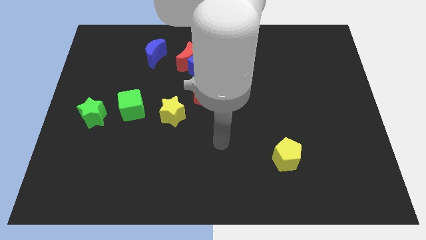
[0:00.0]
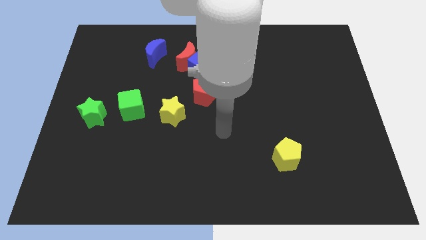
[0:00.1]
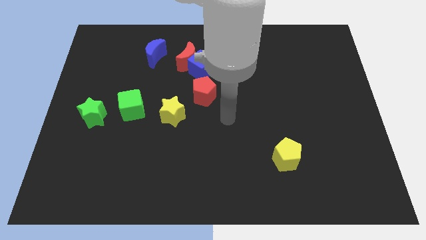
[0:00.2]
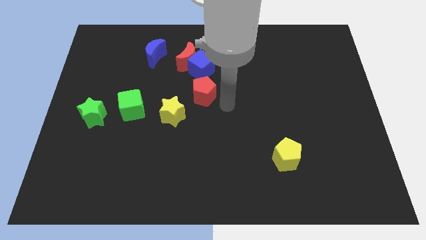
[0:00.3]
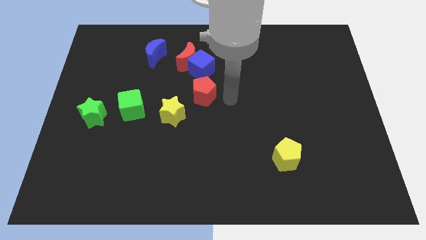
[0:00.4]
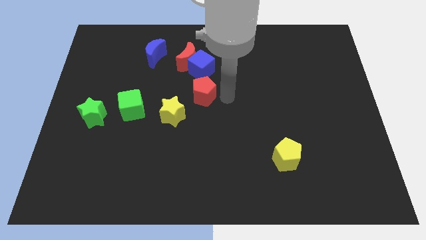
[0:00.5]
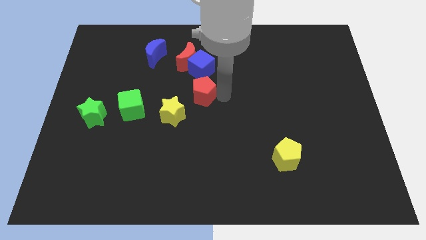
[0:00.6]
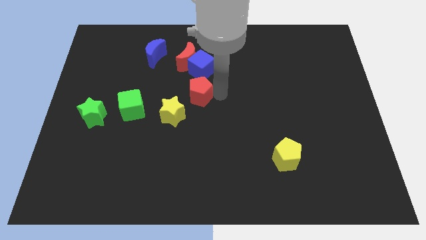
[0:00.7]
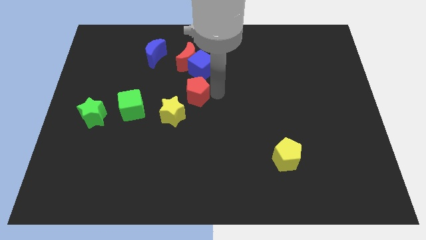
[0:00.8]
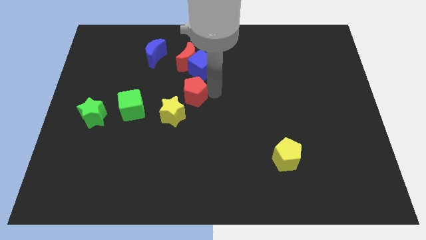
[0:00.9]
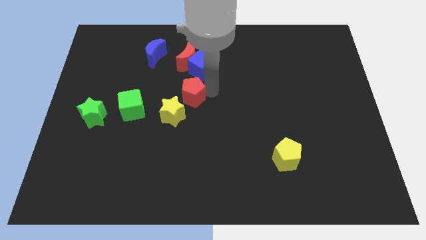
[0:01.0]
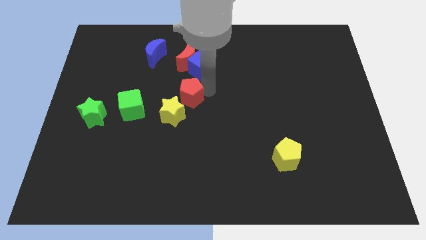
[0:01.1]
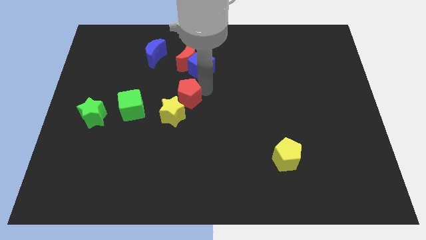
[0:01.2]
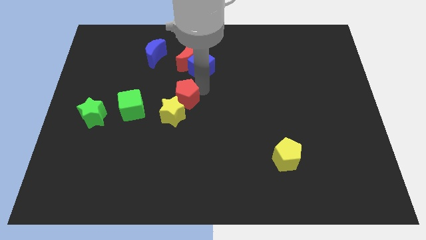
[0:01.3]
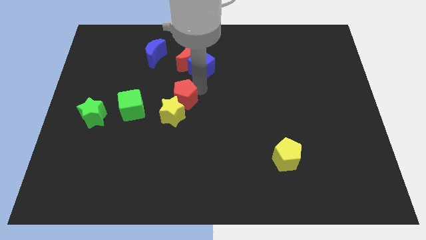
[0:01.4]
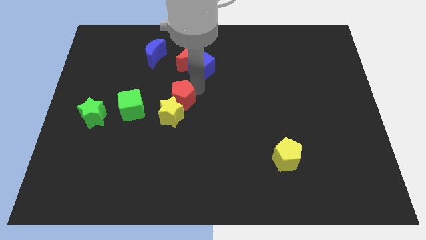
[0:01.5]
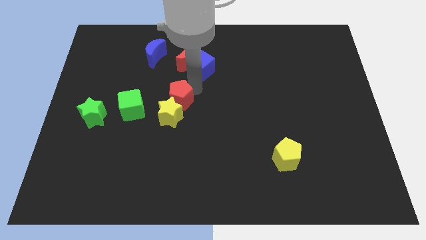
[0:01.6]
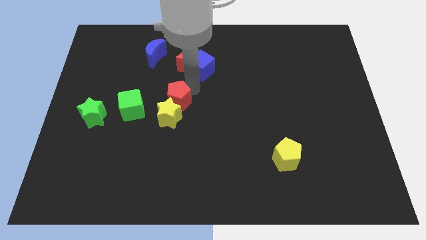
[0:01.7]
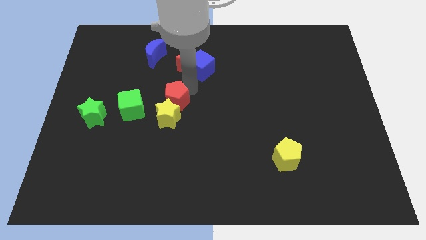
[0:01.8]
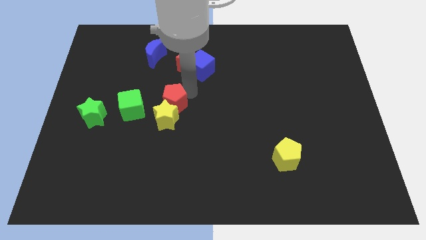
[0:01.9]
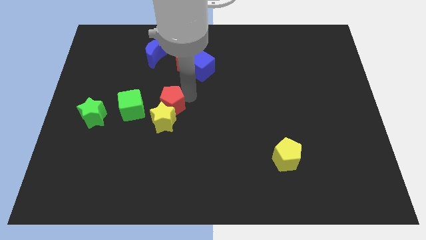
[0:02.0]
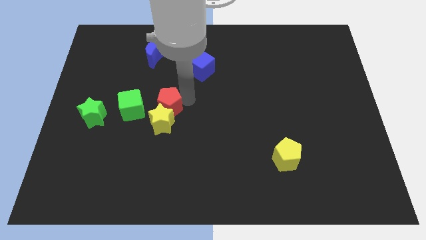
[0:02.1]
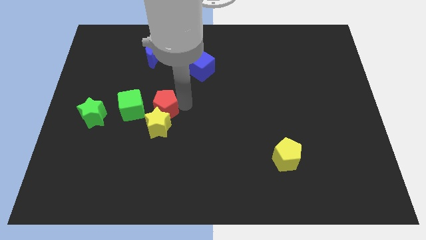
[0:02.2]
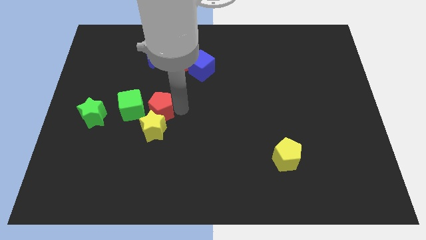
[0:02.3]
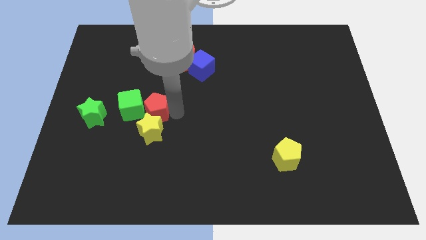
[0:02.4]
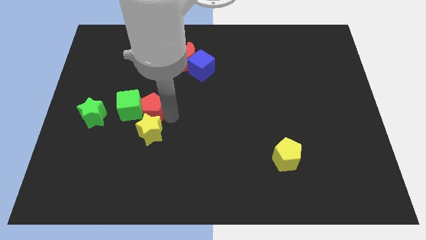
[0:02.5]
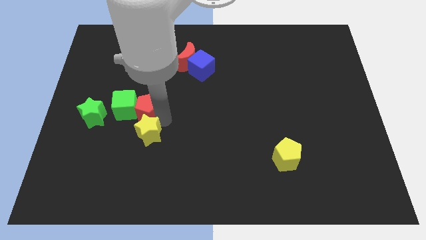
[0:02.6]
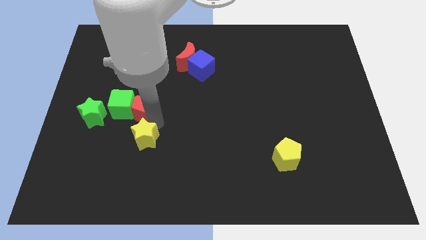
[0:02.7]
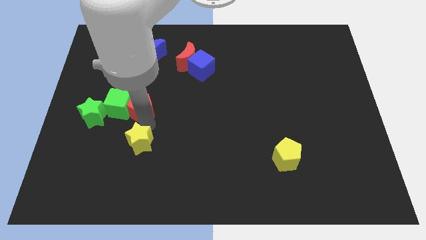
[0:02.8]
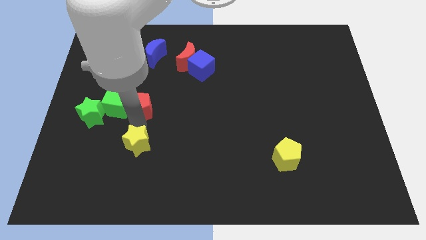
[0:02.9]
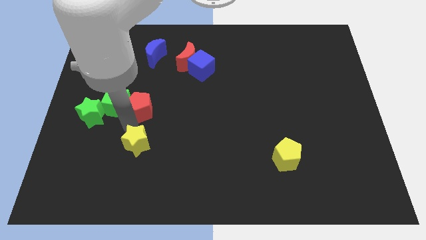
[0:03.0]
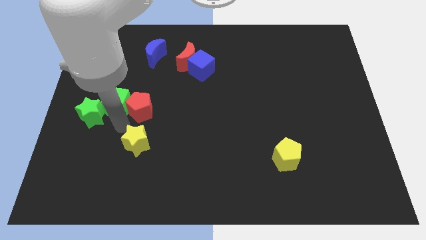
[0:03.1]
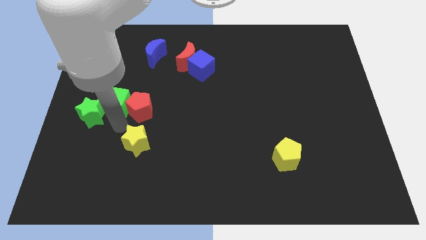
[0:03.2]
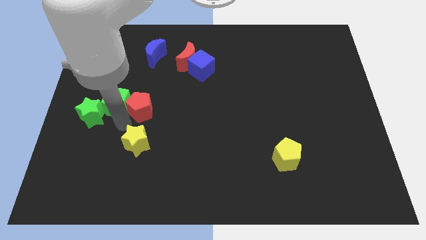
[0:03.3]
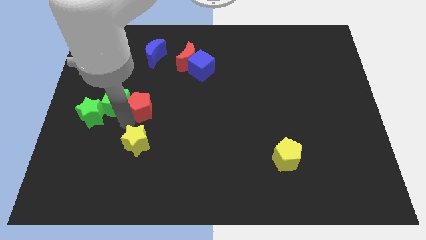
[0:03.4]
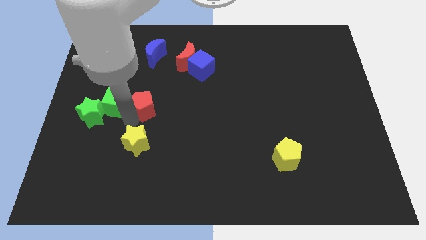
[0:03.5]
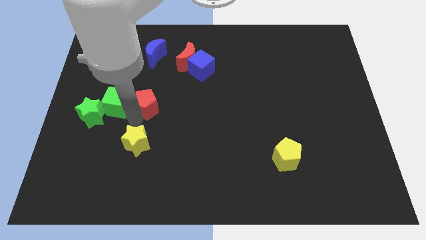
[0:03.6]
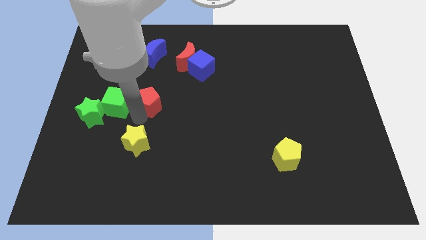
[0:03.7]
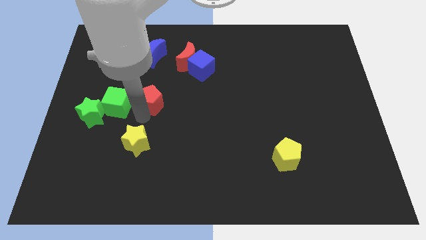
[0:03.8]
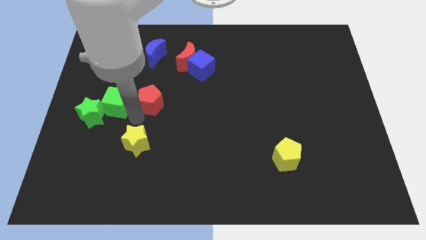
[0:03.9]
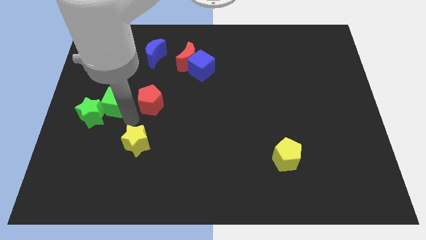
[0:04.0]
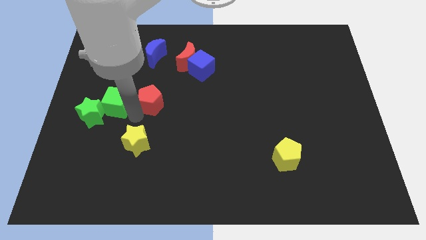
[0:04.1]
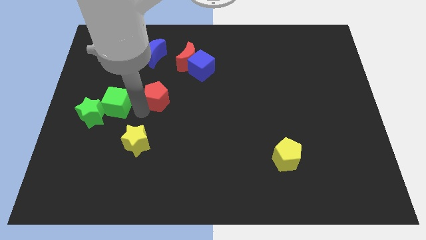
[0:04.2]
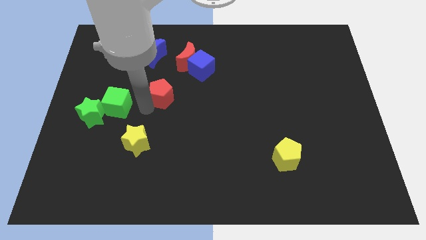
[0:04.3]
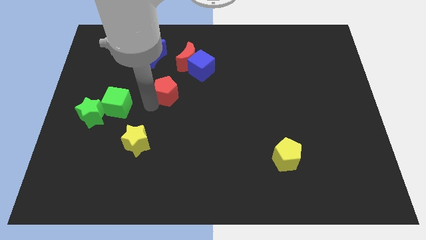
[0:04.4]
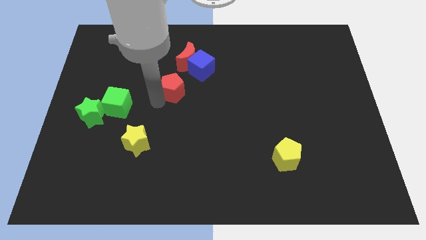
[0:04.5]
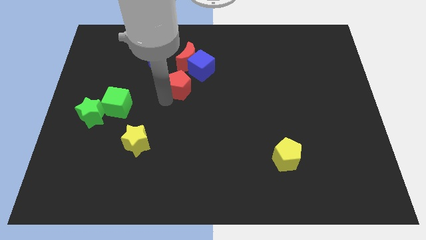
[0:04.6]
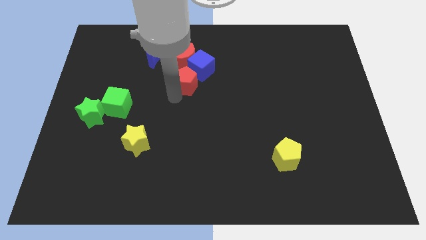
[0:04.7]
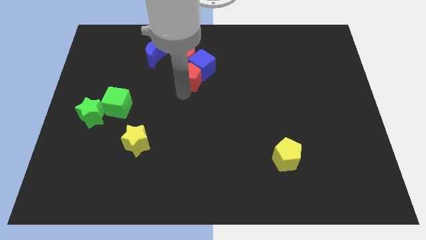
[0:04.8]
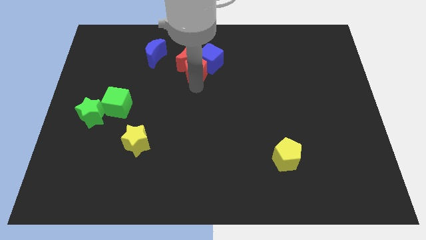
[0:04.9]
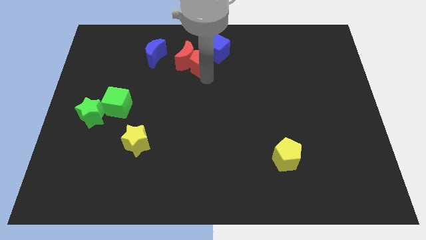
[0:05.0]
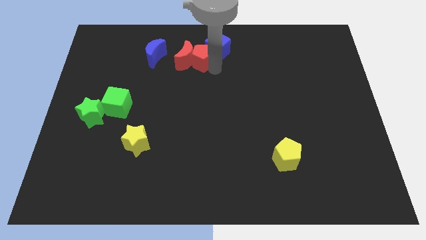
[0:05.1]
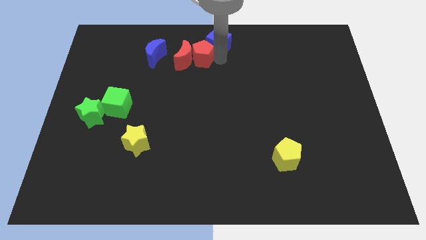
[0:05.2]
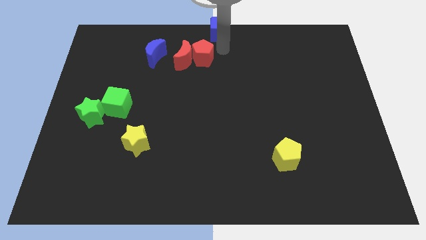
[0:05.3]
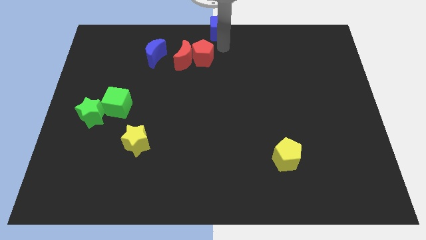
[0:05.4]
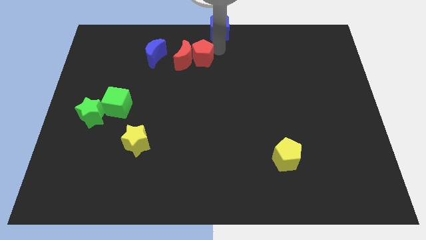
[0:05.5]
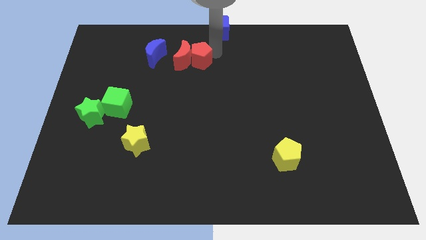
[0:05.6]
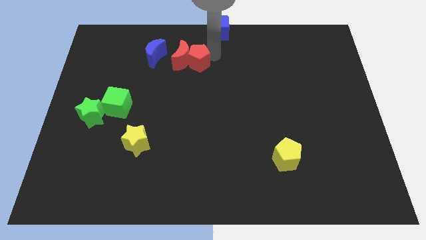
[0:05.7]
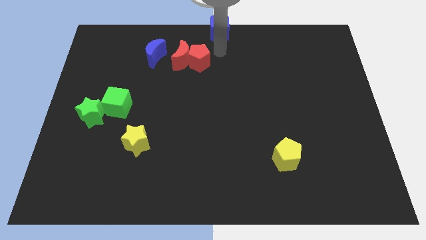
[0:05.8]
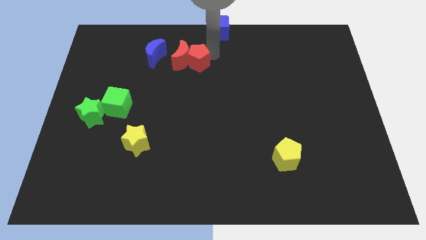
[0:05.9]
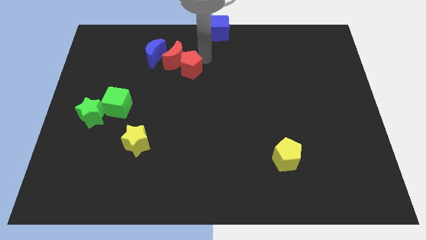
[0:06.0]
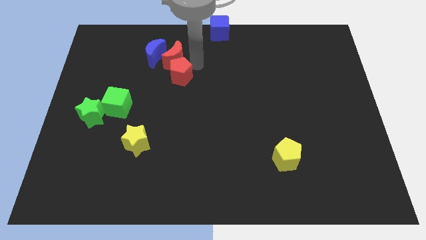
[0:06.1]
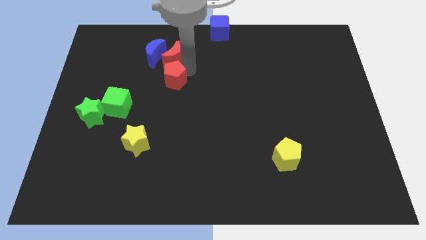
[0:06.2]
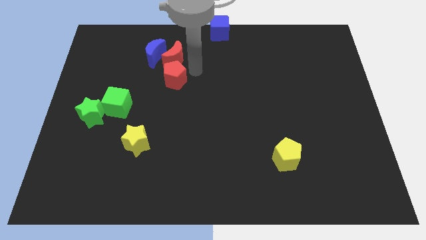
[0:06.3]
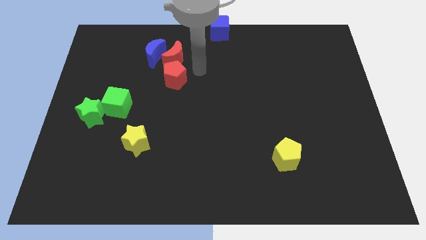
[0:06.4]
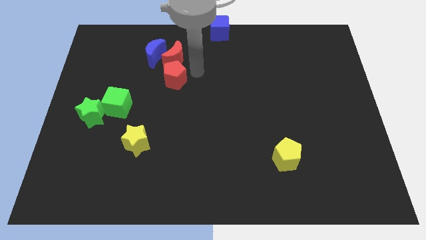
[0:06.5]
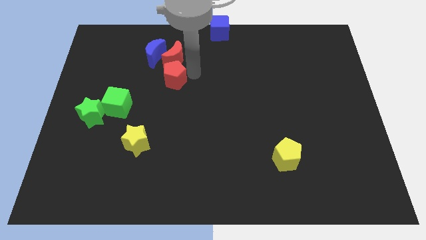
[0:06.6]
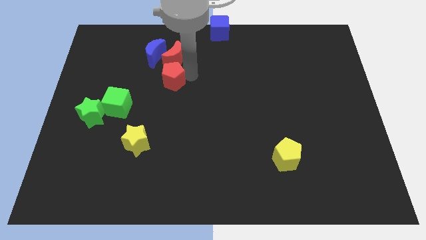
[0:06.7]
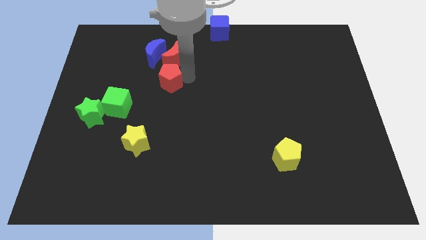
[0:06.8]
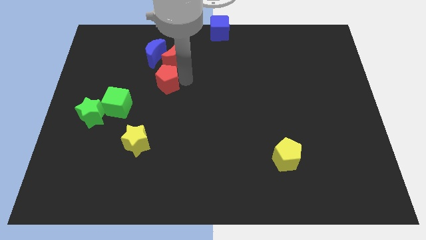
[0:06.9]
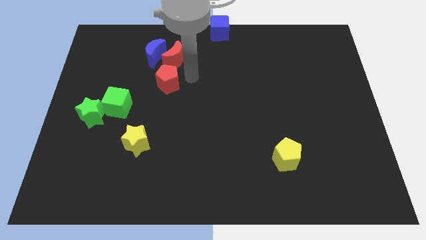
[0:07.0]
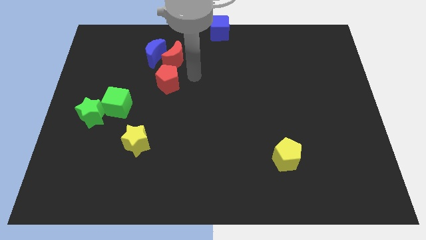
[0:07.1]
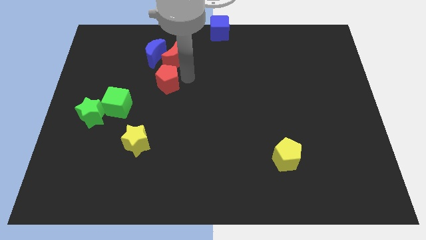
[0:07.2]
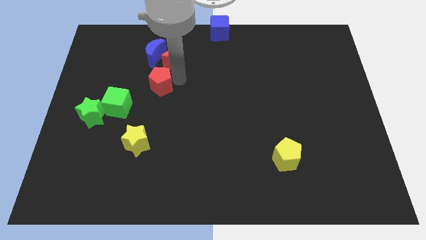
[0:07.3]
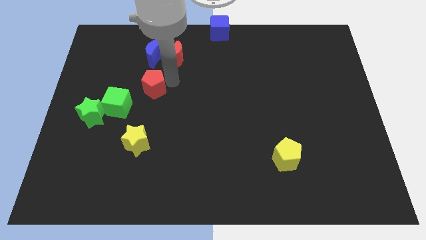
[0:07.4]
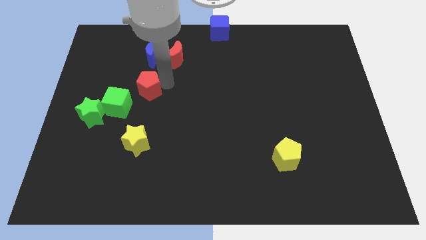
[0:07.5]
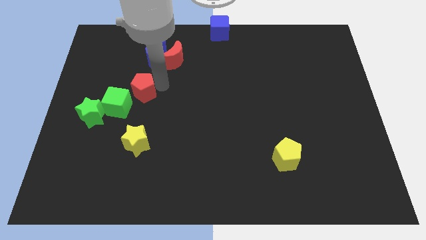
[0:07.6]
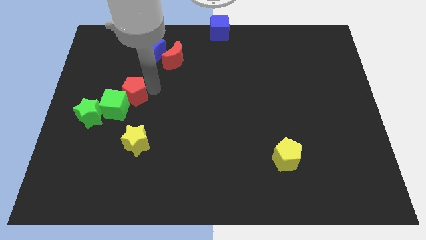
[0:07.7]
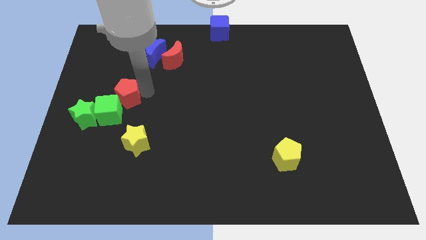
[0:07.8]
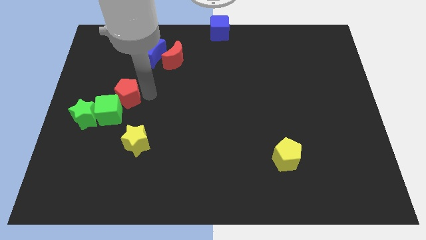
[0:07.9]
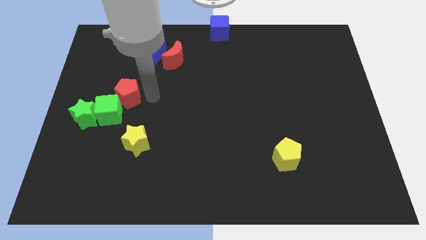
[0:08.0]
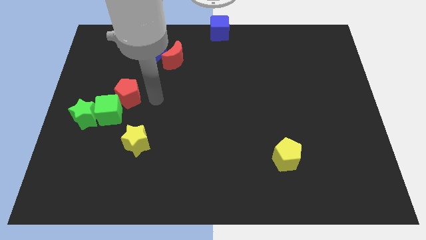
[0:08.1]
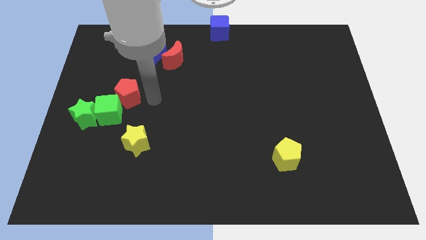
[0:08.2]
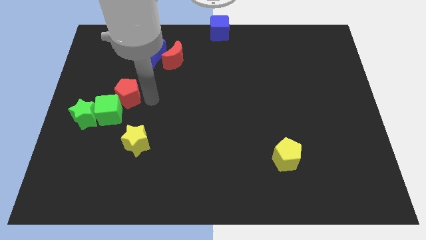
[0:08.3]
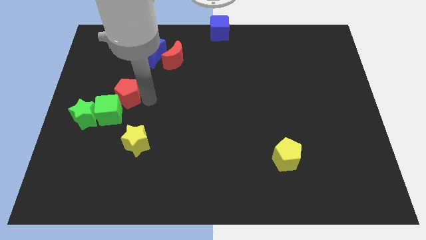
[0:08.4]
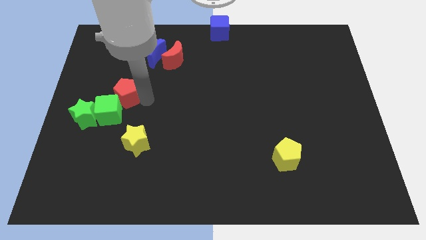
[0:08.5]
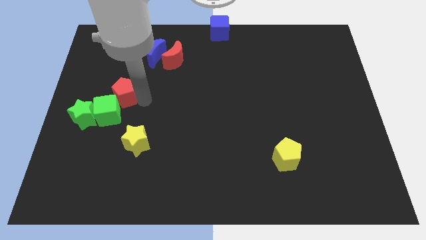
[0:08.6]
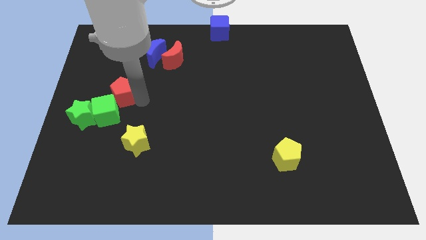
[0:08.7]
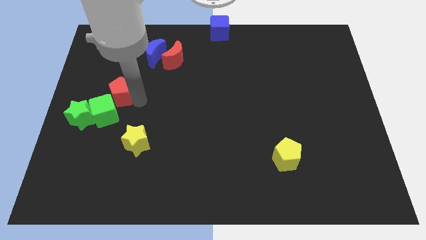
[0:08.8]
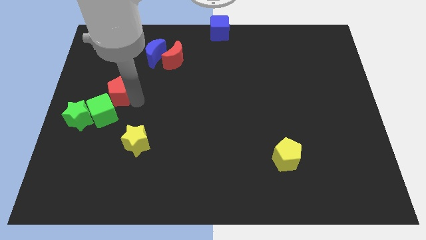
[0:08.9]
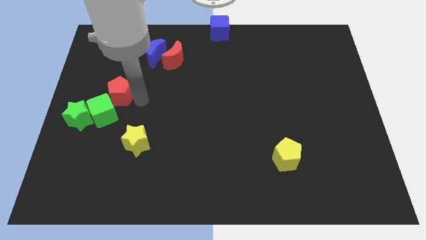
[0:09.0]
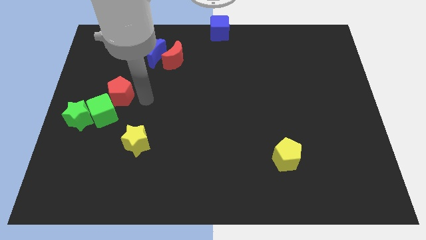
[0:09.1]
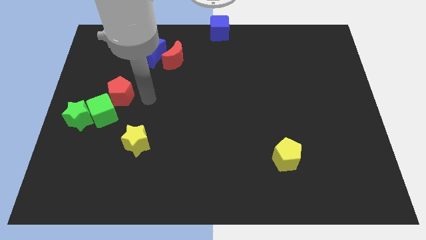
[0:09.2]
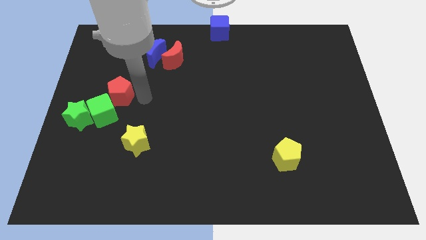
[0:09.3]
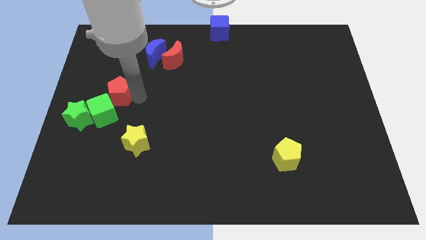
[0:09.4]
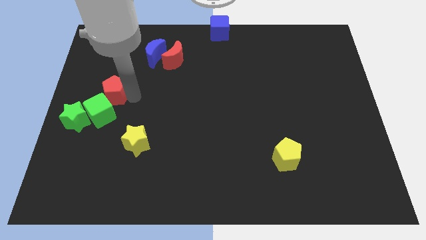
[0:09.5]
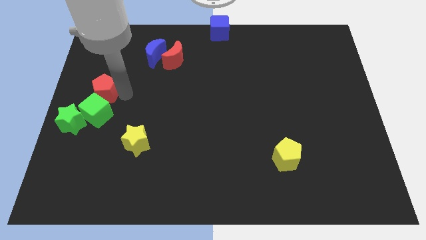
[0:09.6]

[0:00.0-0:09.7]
put the red pentagon to the left side
